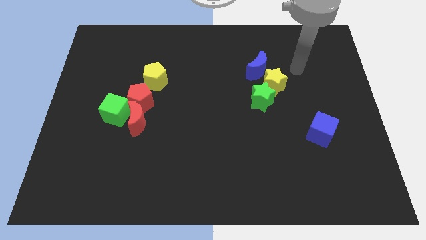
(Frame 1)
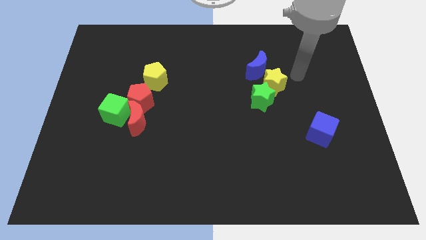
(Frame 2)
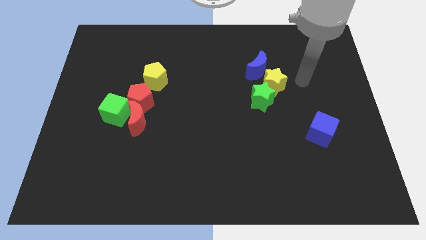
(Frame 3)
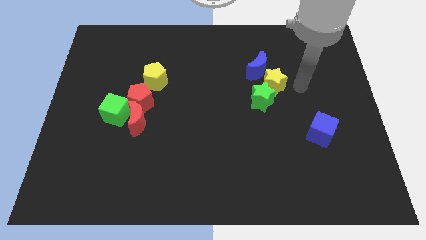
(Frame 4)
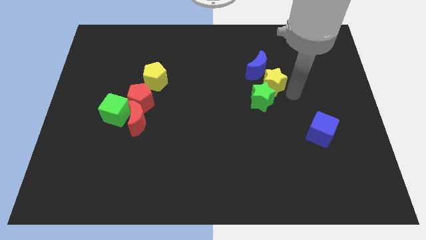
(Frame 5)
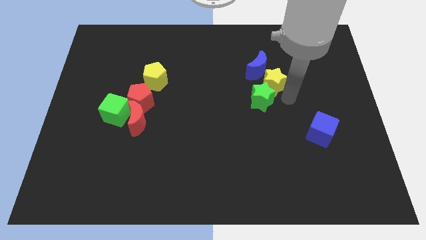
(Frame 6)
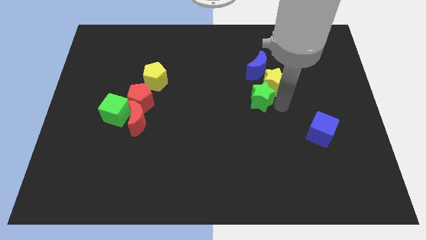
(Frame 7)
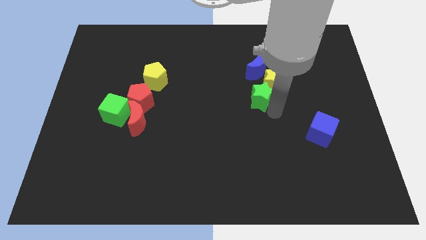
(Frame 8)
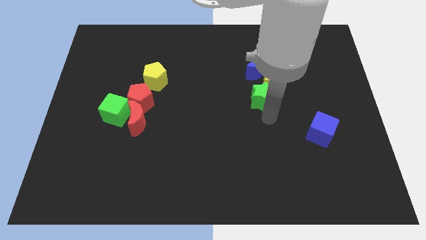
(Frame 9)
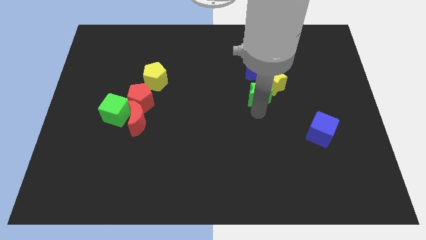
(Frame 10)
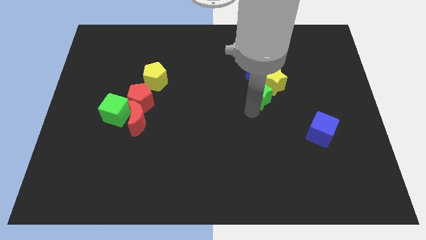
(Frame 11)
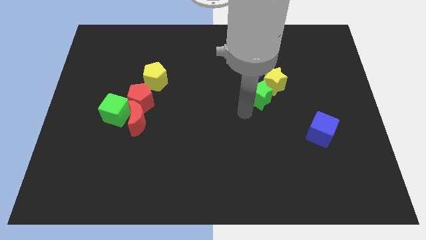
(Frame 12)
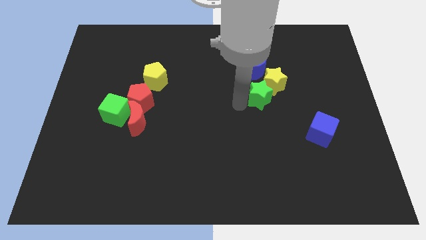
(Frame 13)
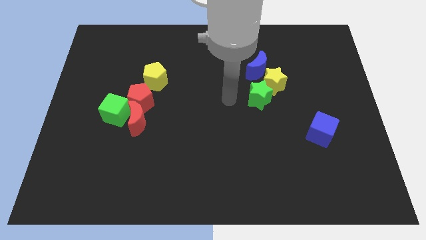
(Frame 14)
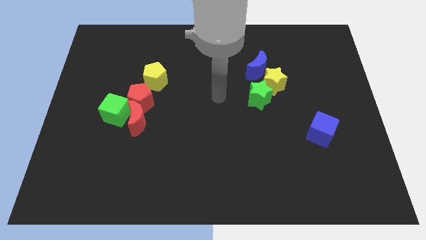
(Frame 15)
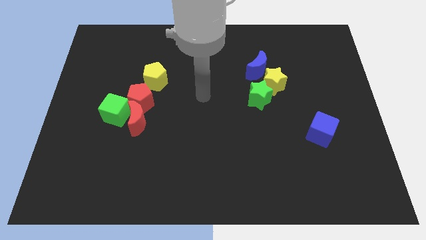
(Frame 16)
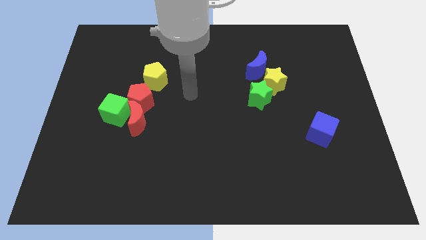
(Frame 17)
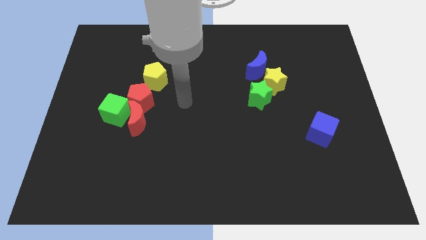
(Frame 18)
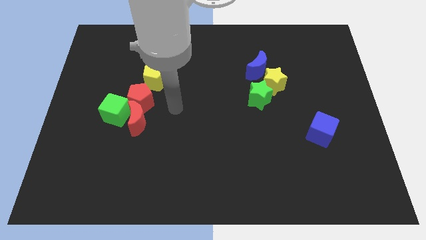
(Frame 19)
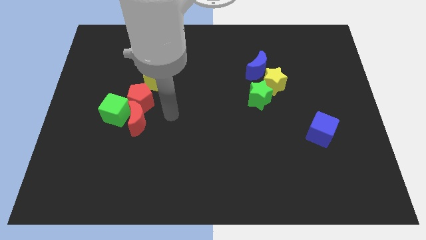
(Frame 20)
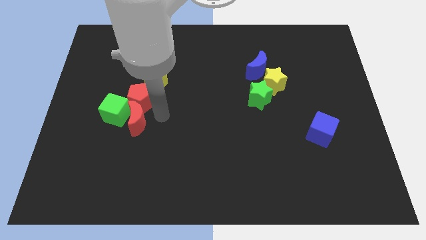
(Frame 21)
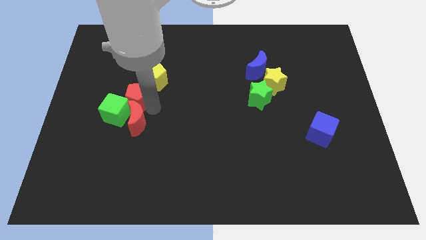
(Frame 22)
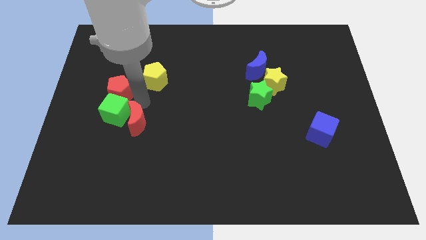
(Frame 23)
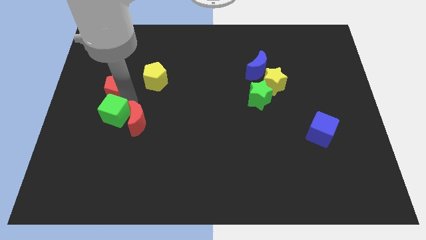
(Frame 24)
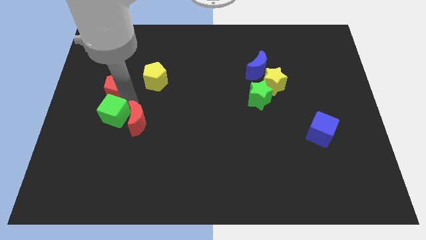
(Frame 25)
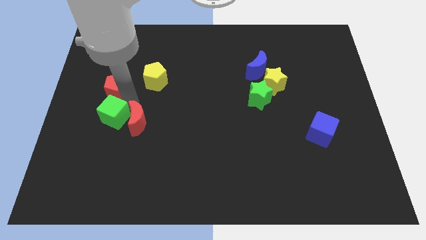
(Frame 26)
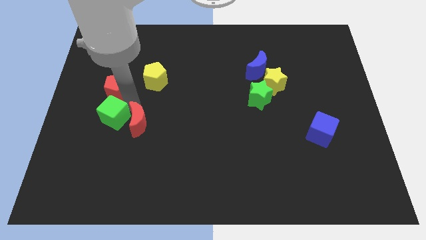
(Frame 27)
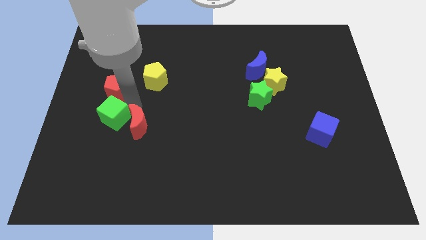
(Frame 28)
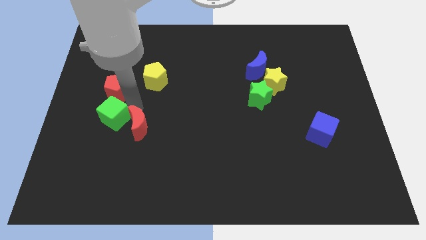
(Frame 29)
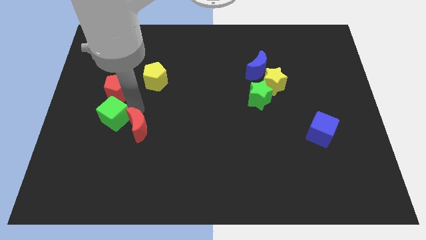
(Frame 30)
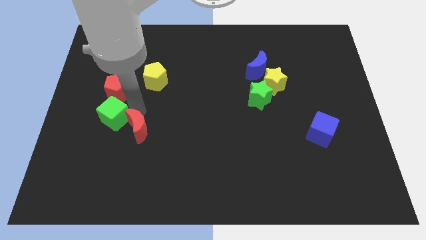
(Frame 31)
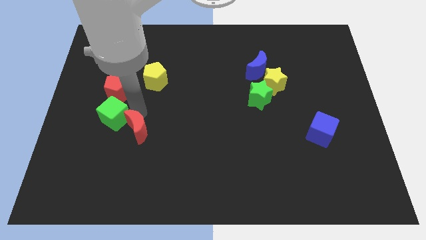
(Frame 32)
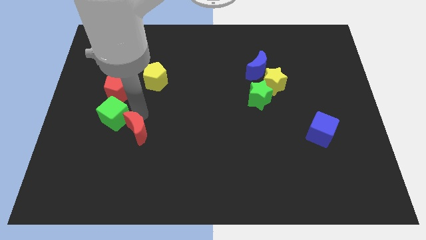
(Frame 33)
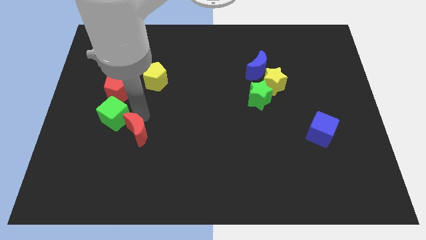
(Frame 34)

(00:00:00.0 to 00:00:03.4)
pull the red moon apart from the red pentagon and green cube

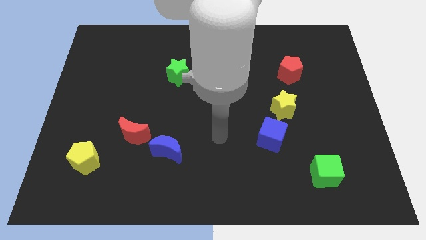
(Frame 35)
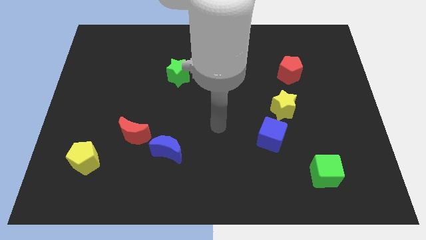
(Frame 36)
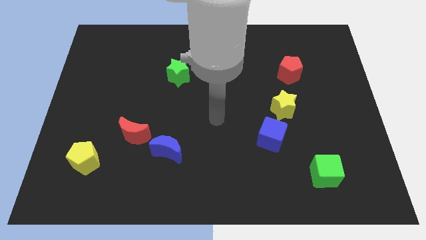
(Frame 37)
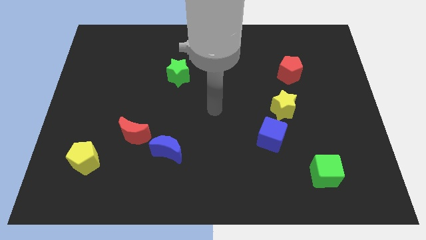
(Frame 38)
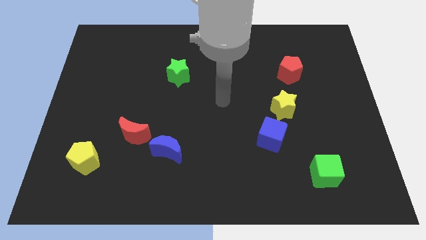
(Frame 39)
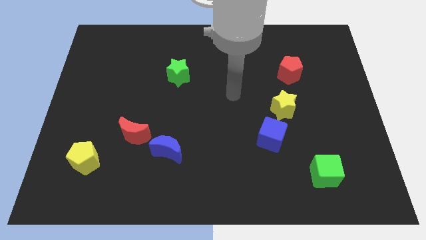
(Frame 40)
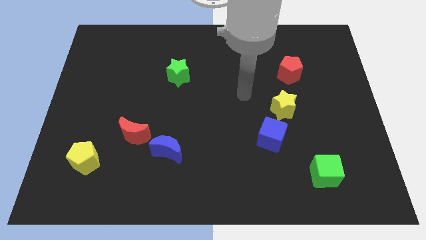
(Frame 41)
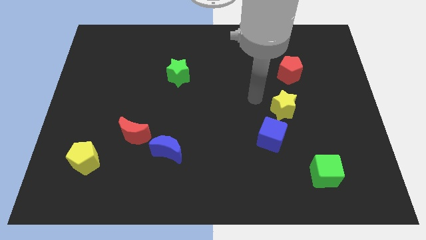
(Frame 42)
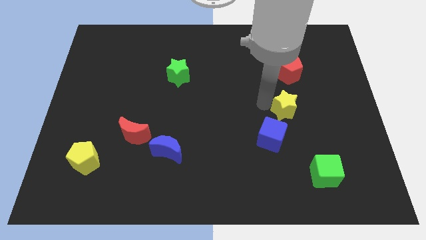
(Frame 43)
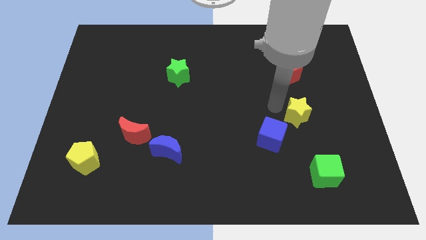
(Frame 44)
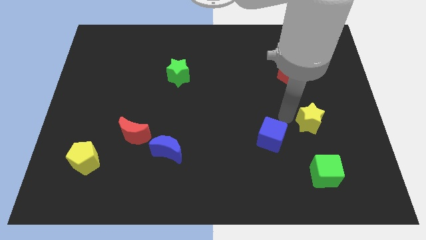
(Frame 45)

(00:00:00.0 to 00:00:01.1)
move the blue cube away from the yellow star

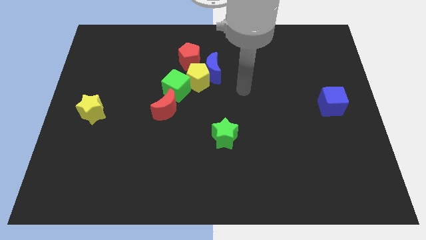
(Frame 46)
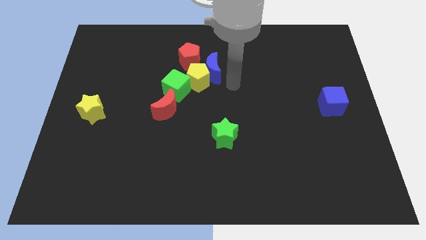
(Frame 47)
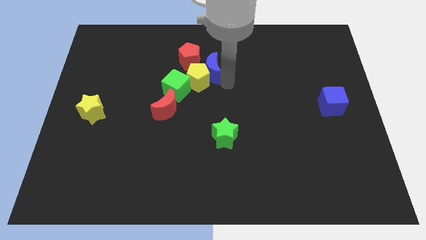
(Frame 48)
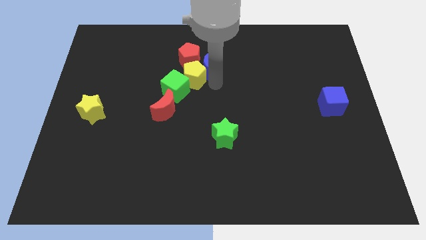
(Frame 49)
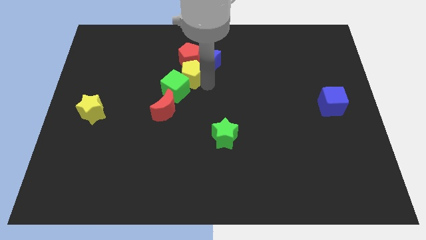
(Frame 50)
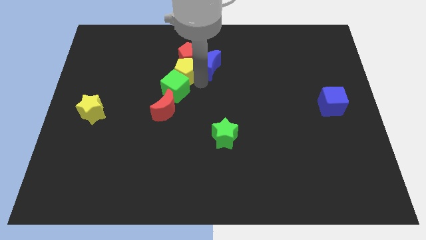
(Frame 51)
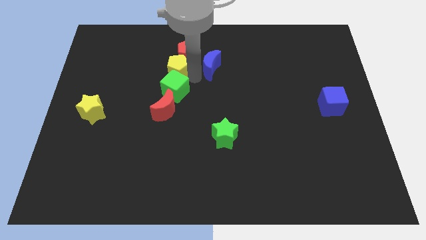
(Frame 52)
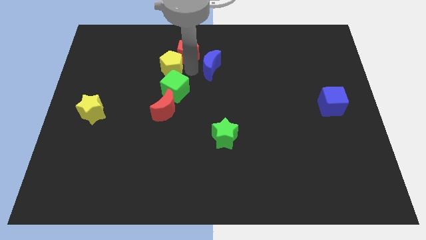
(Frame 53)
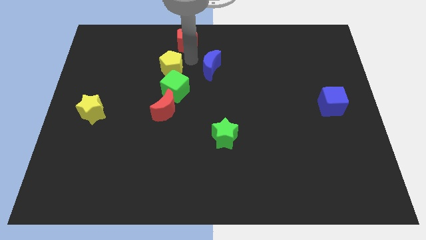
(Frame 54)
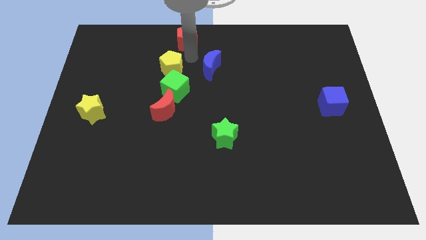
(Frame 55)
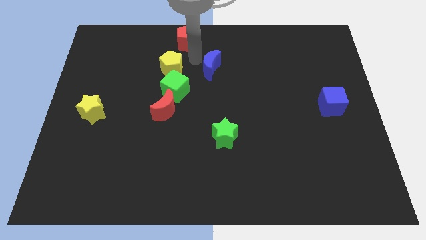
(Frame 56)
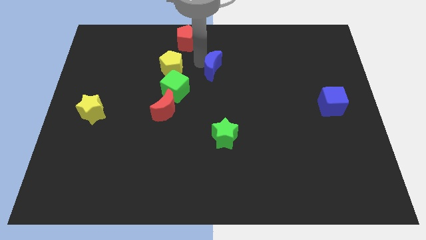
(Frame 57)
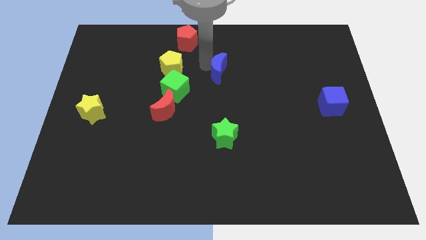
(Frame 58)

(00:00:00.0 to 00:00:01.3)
pull the blue moon apart from the yellow pentagon and red pentagon

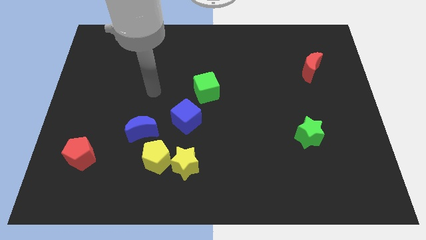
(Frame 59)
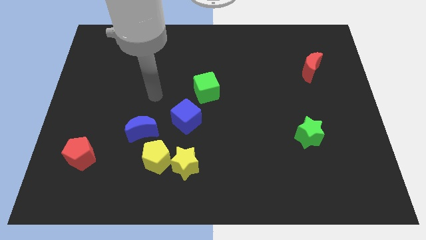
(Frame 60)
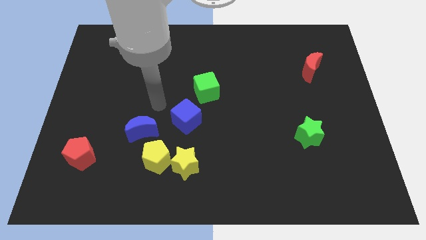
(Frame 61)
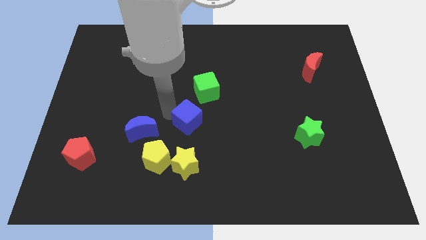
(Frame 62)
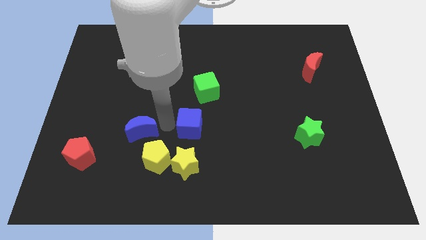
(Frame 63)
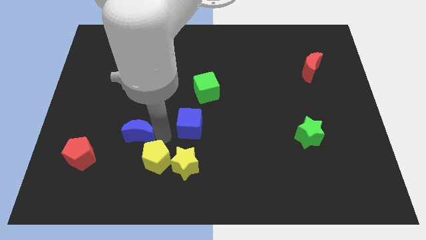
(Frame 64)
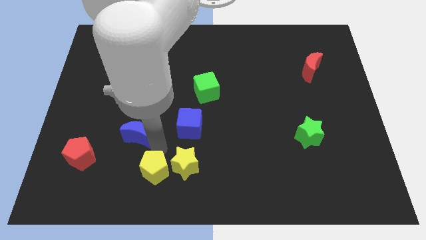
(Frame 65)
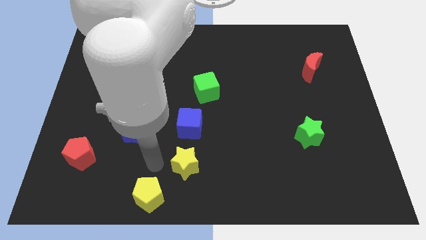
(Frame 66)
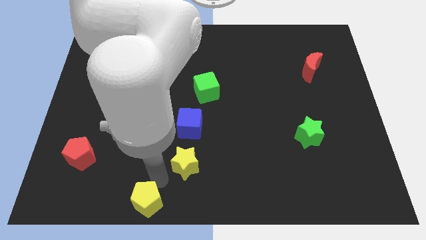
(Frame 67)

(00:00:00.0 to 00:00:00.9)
pull the yellow star apart from the yellow pentagon

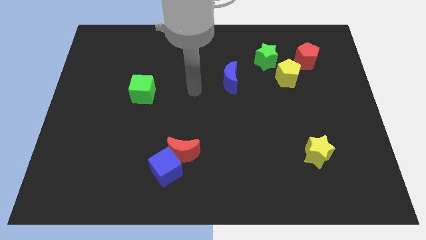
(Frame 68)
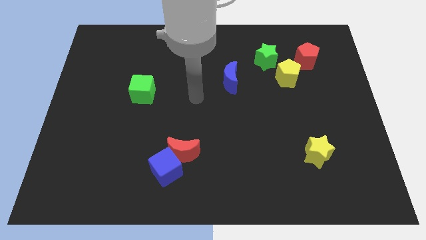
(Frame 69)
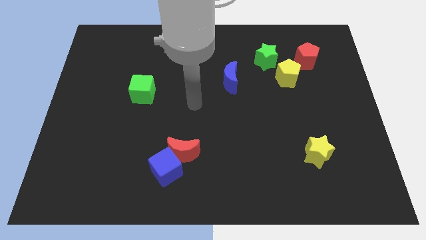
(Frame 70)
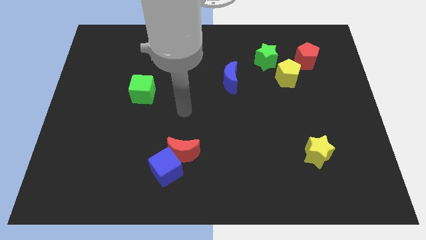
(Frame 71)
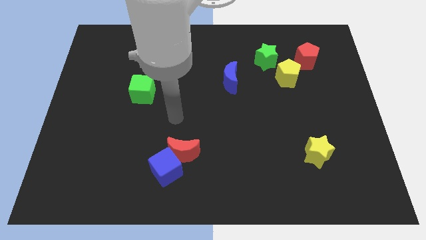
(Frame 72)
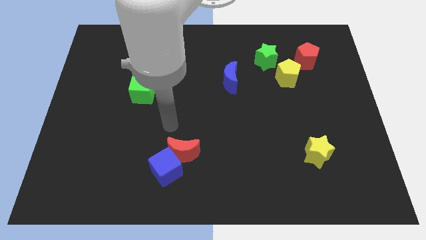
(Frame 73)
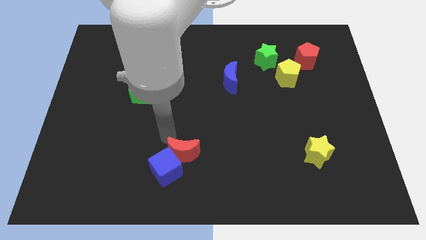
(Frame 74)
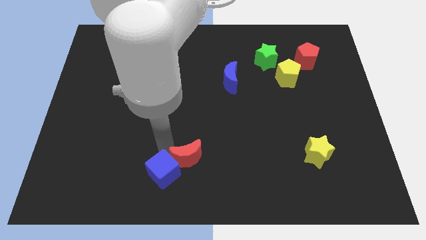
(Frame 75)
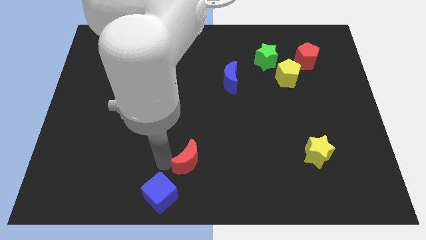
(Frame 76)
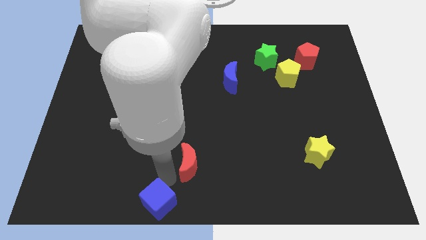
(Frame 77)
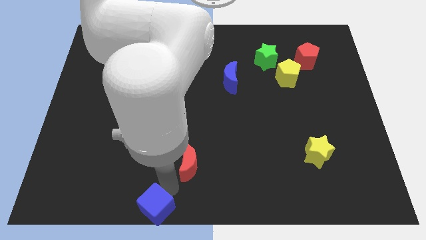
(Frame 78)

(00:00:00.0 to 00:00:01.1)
move the red moon away from the blue cube

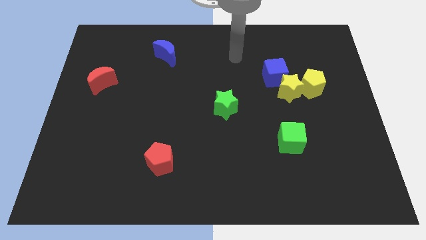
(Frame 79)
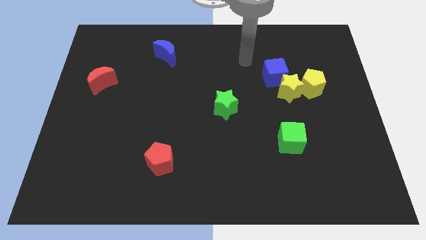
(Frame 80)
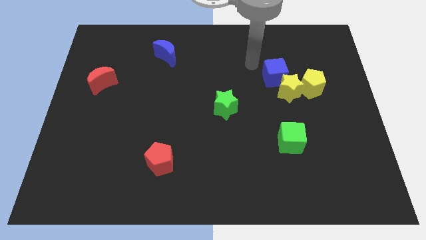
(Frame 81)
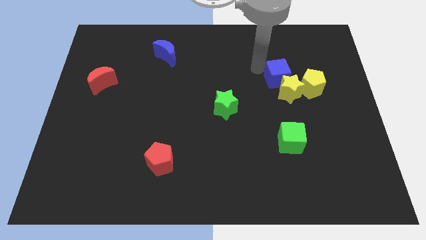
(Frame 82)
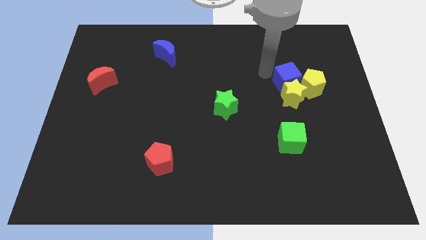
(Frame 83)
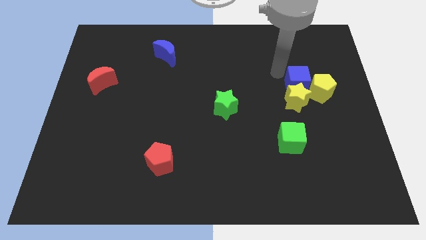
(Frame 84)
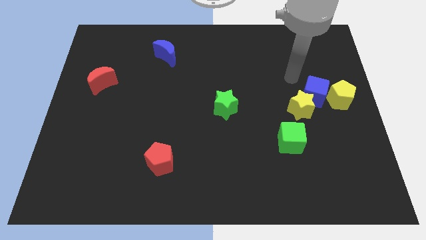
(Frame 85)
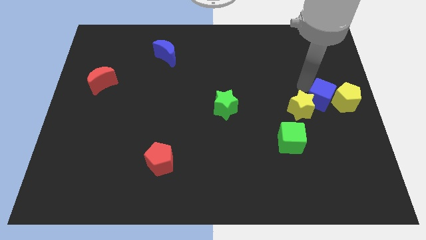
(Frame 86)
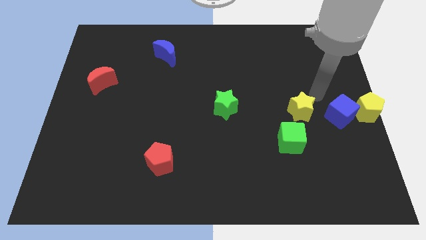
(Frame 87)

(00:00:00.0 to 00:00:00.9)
separate the yellow star from the yellow pentagon and blue cube

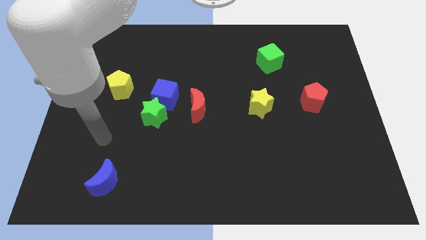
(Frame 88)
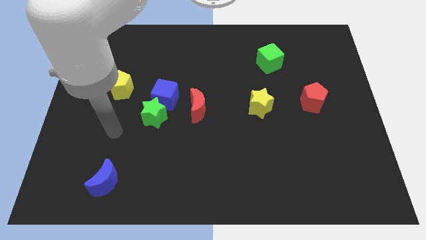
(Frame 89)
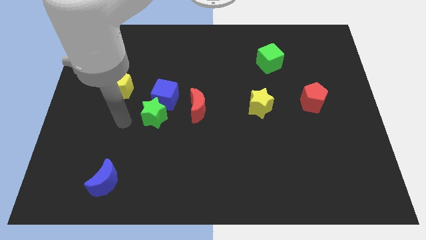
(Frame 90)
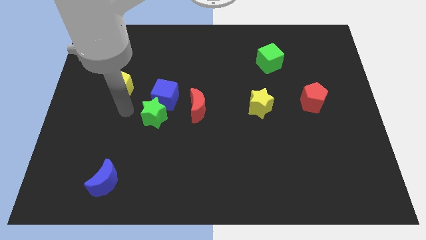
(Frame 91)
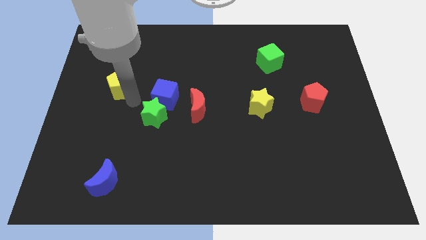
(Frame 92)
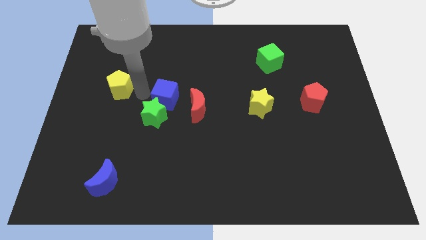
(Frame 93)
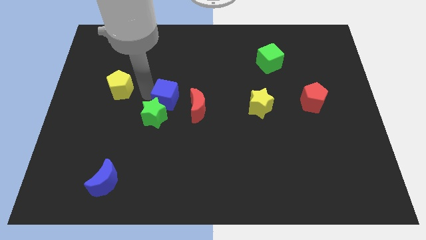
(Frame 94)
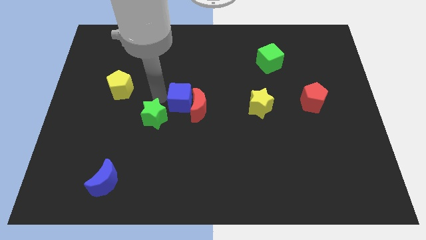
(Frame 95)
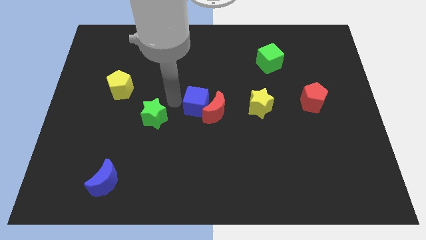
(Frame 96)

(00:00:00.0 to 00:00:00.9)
separate the green star from the blue cube
